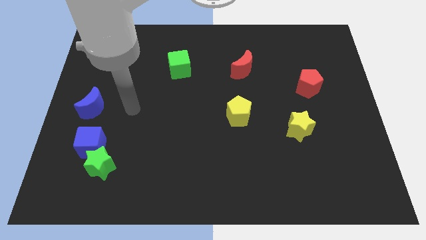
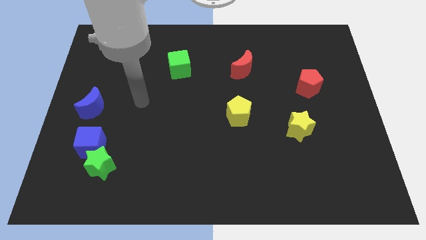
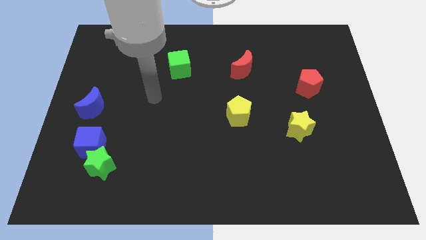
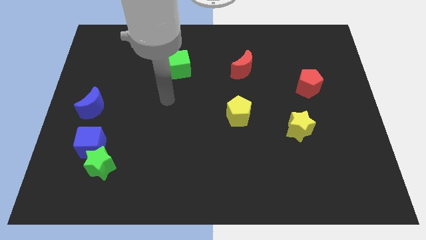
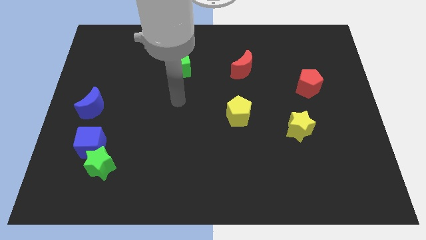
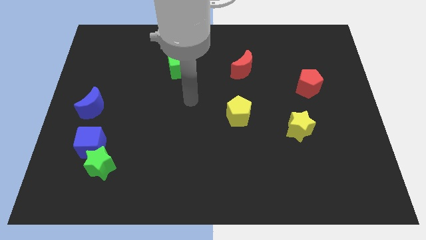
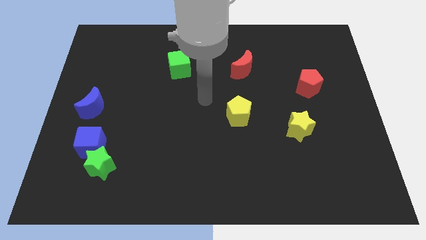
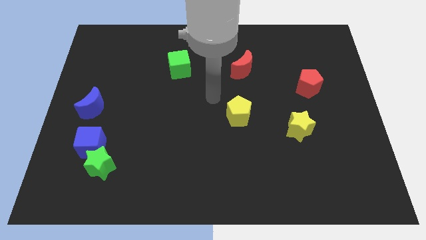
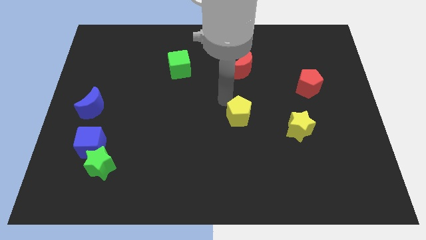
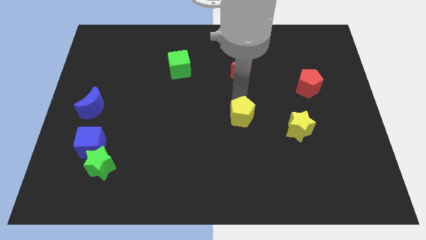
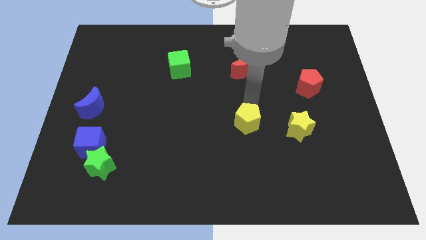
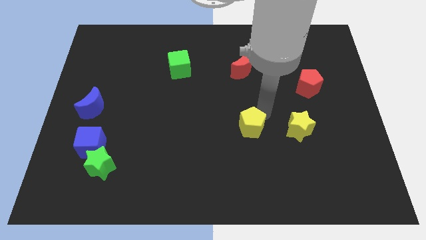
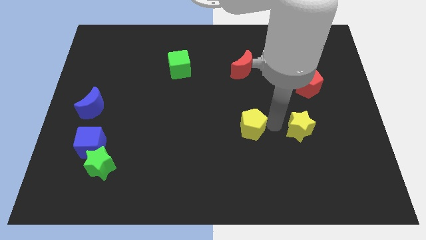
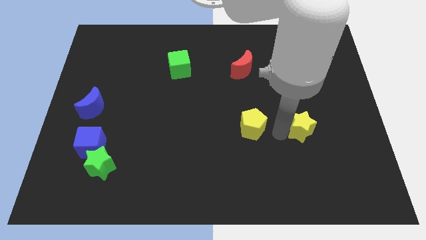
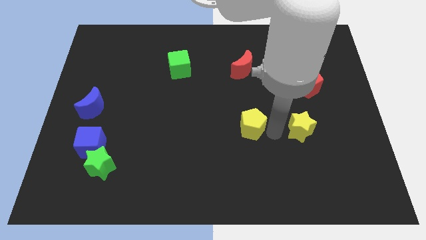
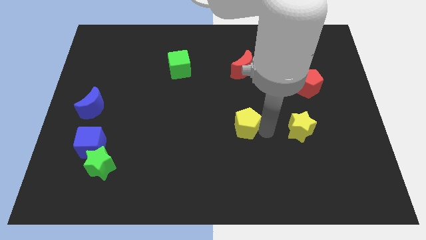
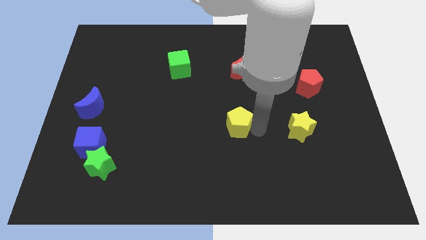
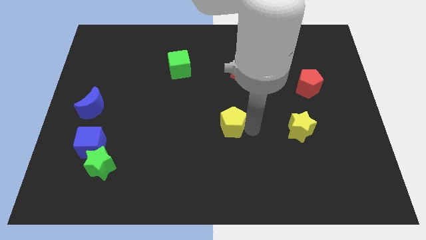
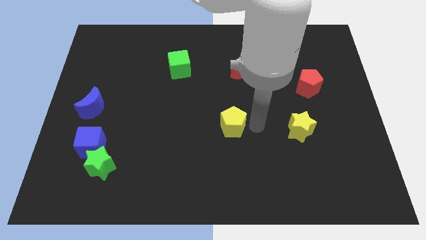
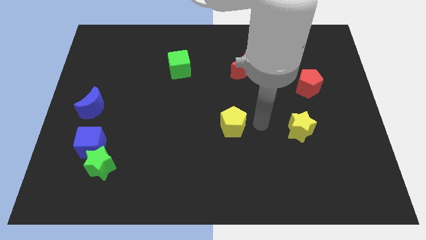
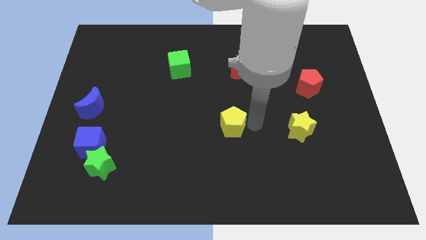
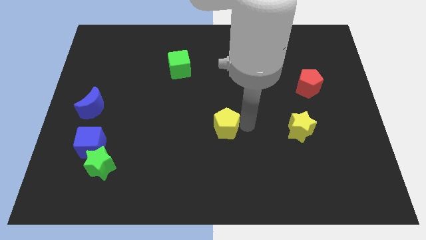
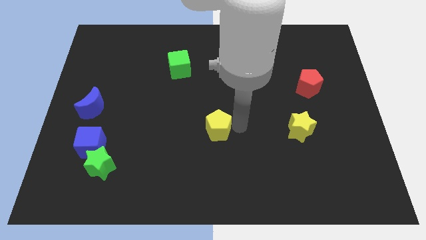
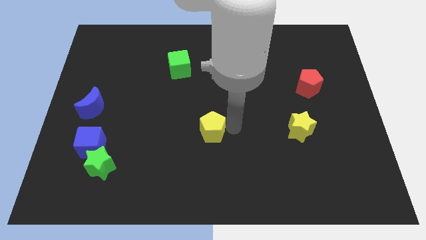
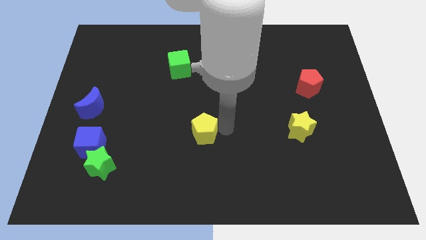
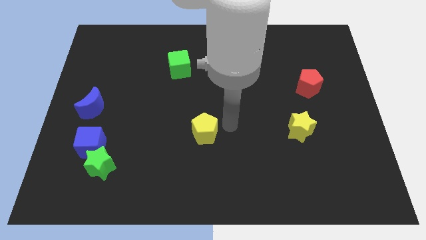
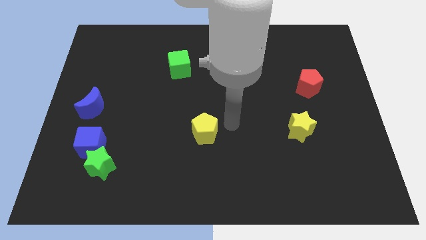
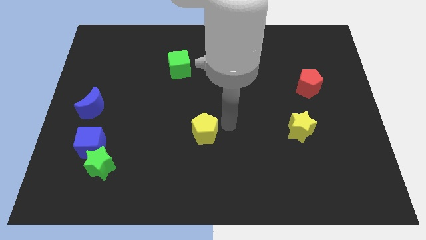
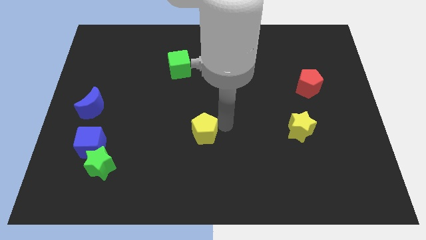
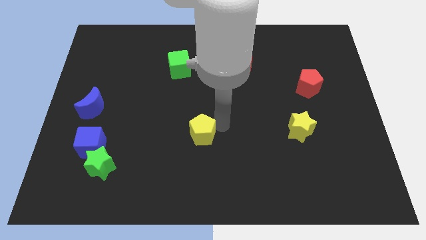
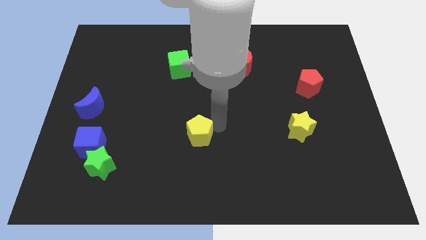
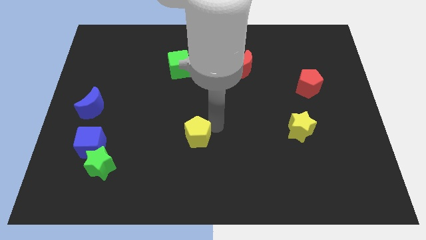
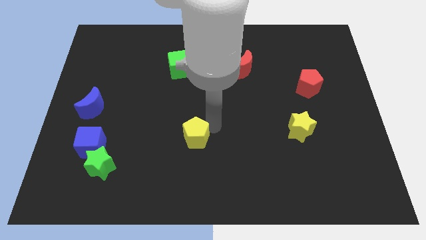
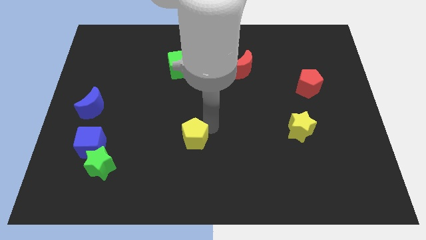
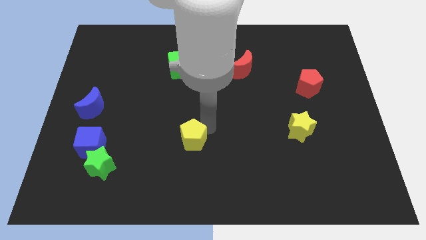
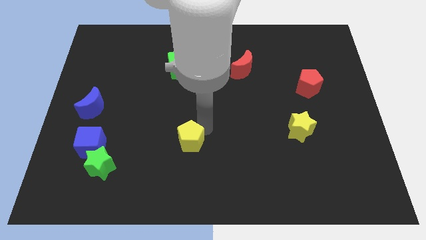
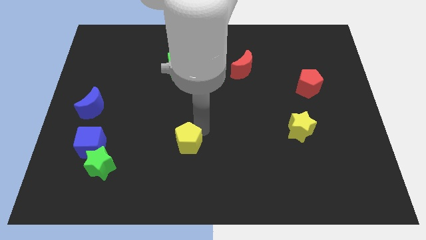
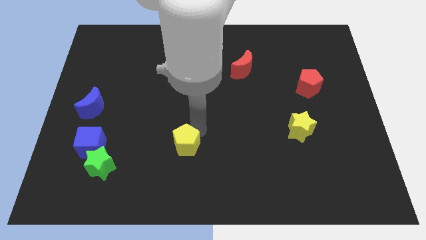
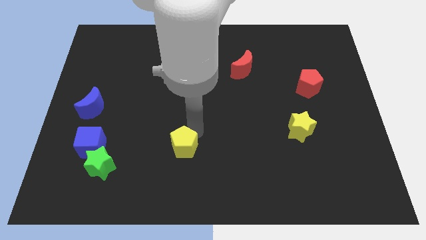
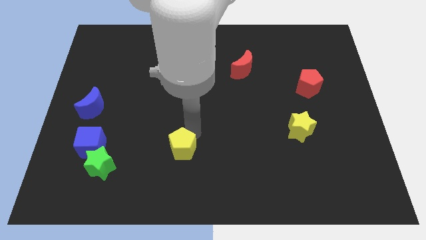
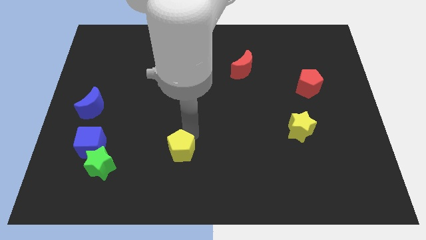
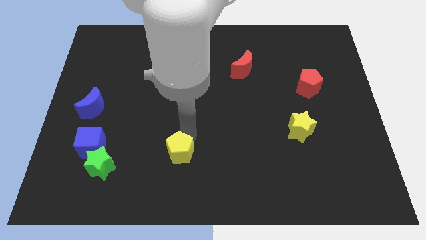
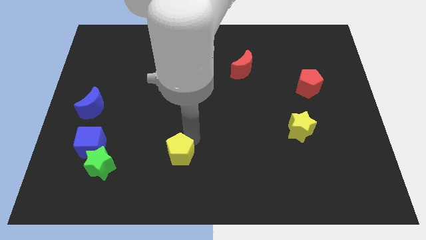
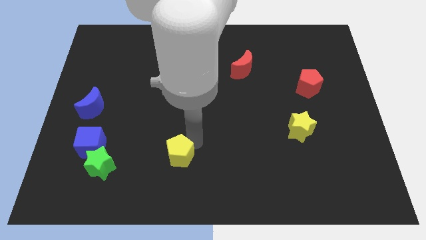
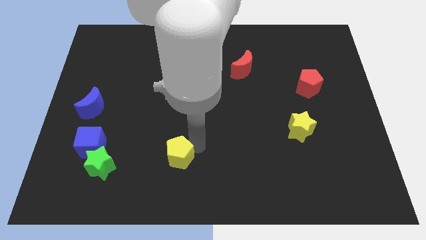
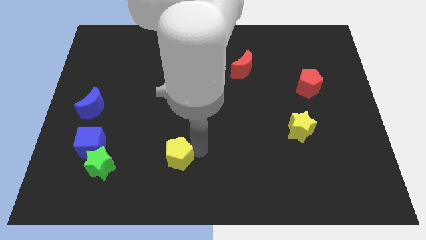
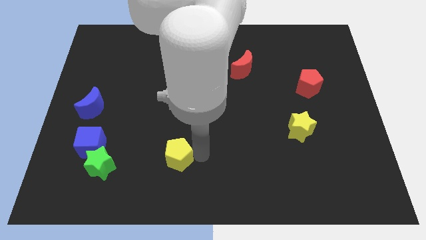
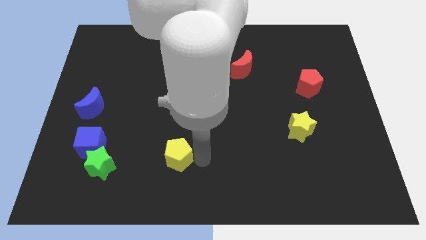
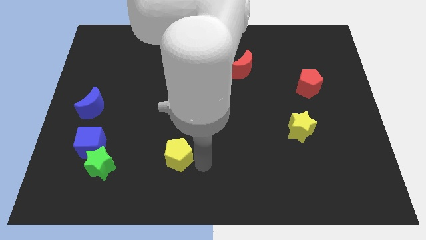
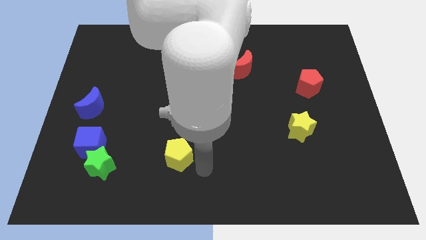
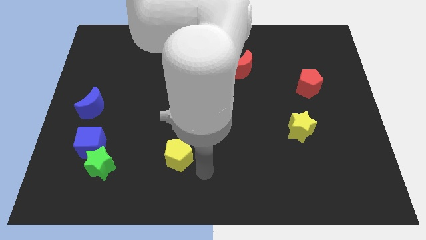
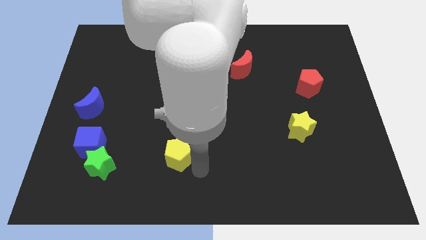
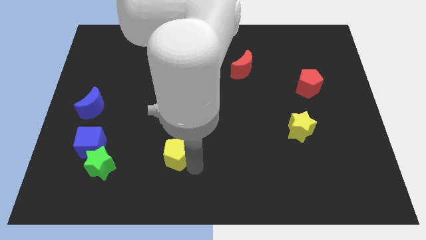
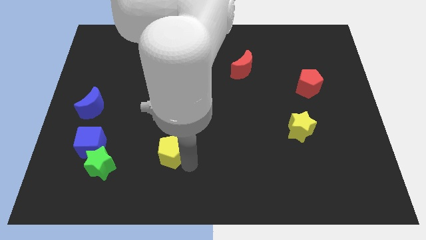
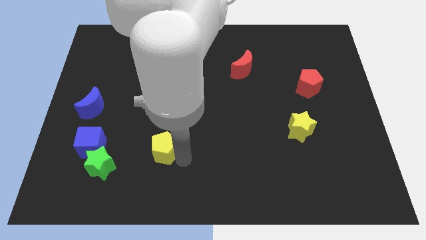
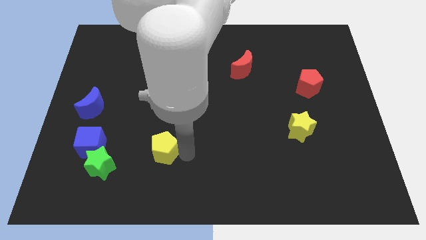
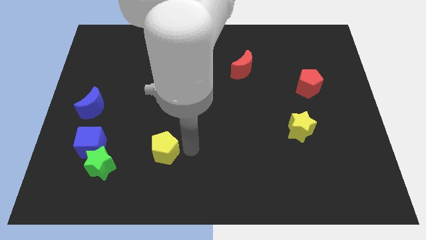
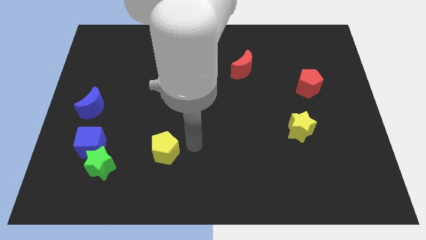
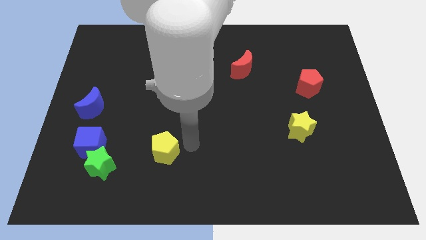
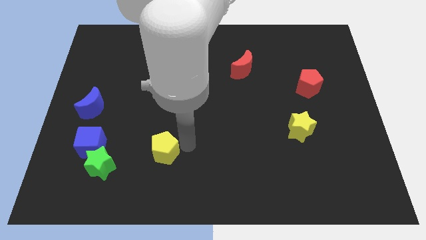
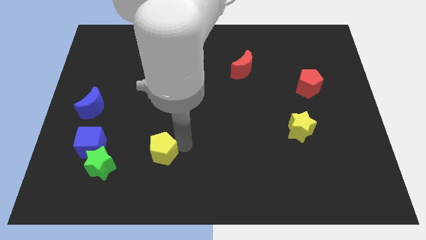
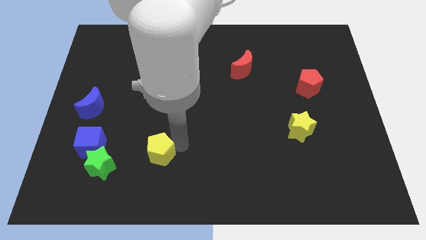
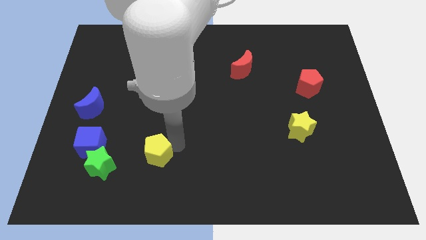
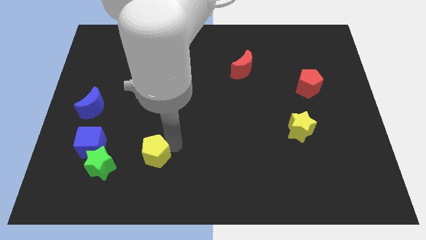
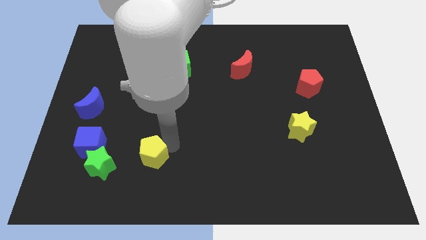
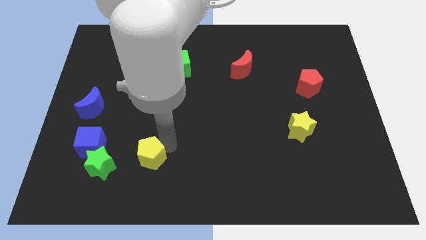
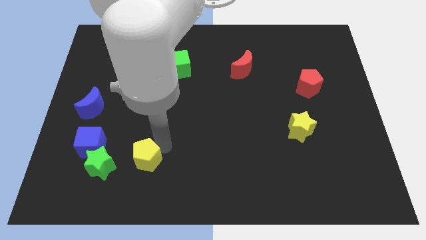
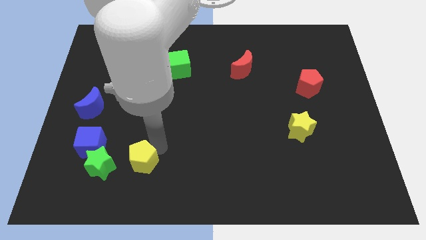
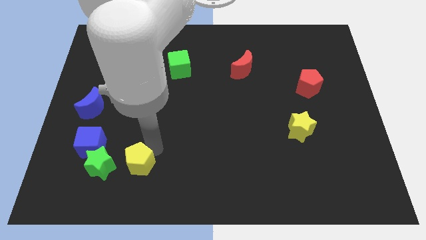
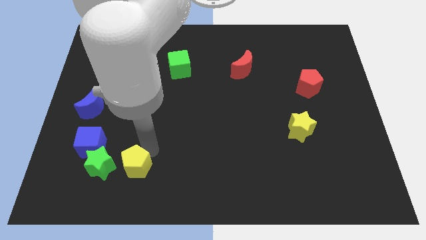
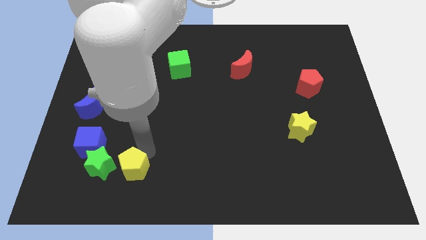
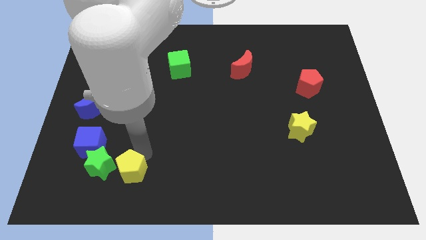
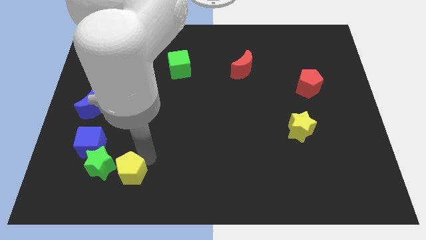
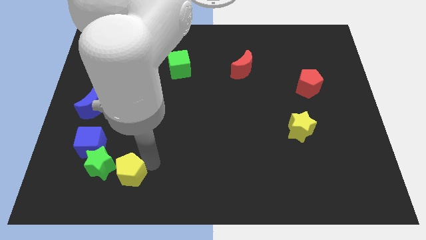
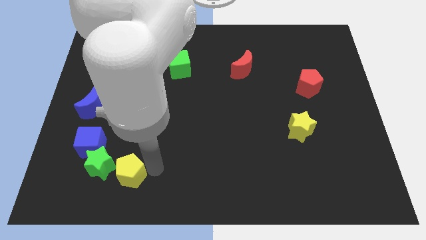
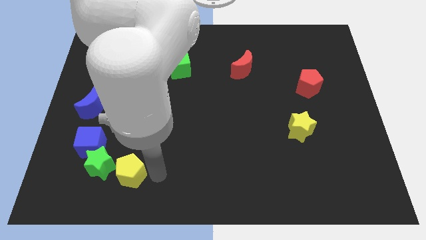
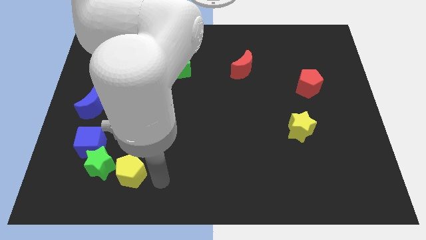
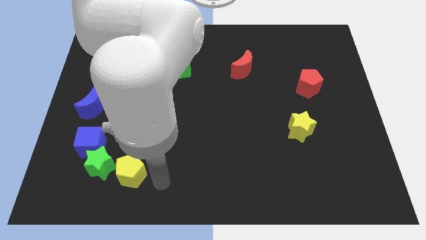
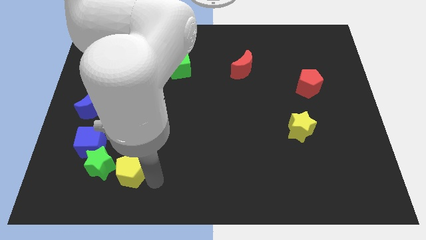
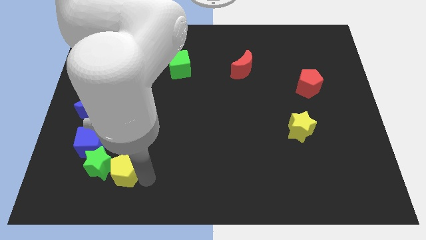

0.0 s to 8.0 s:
slide the yellow pentagon close to the green star
